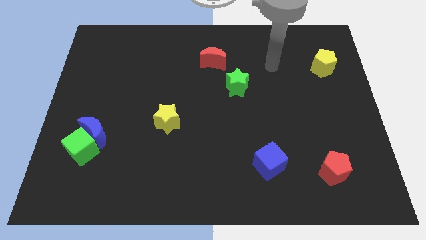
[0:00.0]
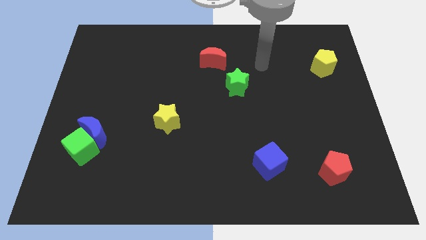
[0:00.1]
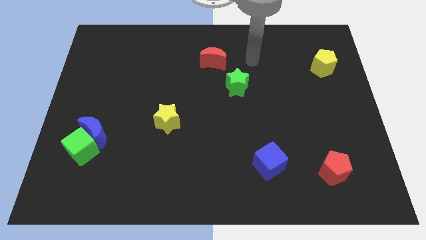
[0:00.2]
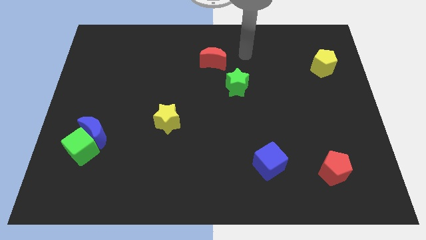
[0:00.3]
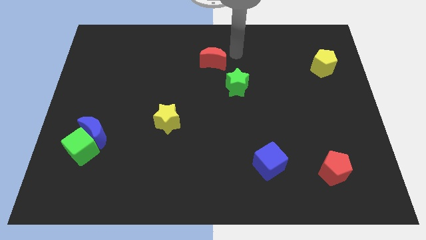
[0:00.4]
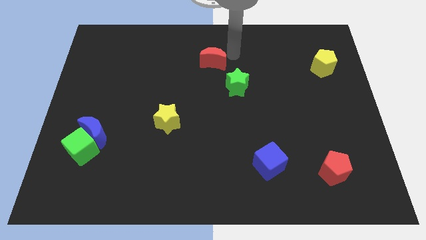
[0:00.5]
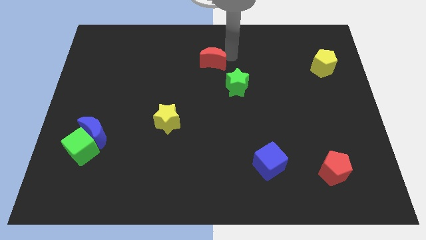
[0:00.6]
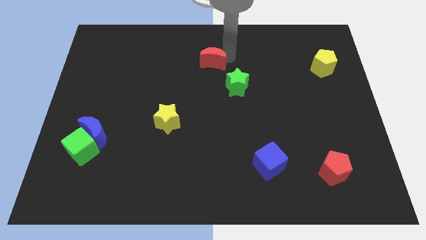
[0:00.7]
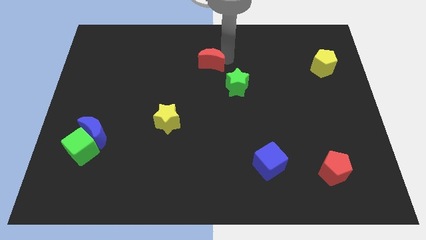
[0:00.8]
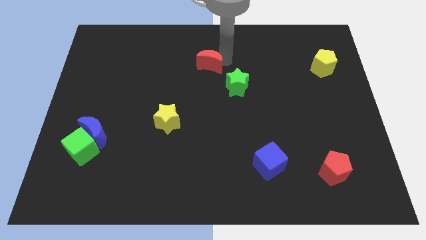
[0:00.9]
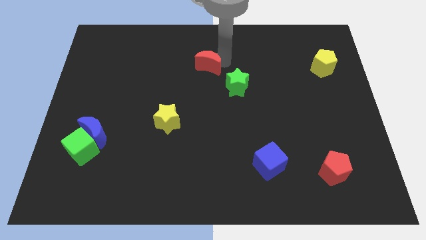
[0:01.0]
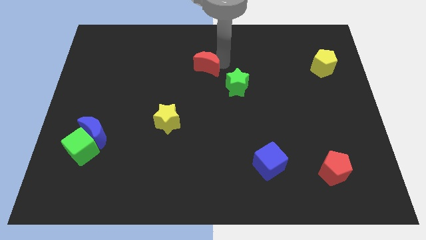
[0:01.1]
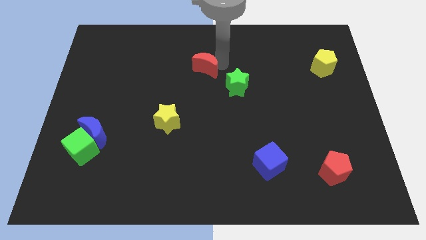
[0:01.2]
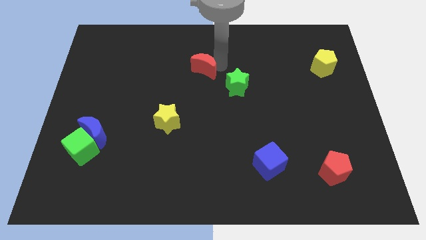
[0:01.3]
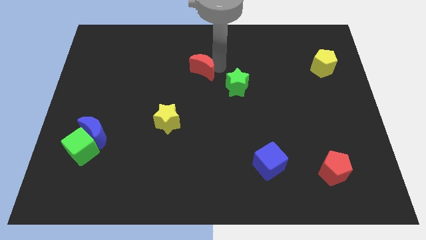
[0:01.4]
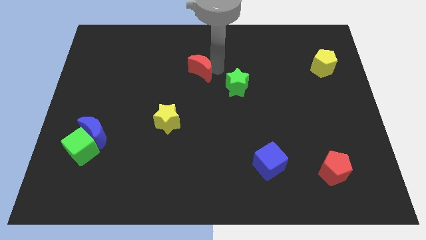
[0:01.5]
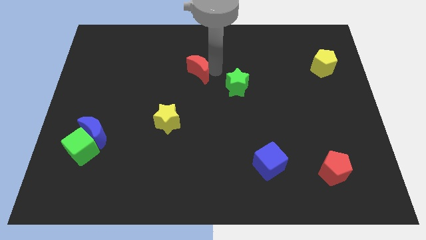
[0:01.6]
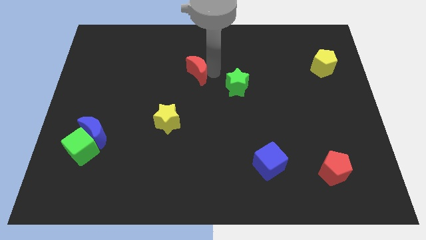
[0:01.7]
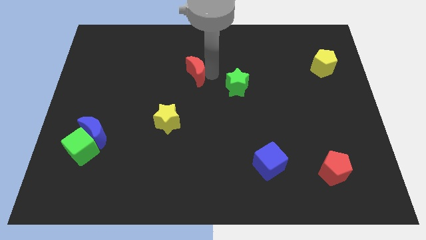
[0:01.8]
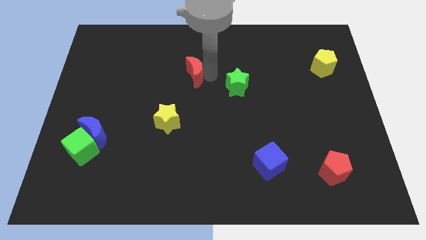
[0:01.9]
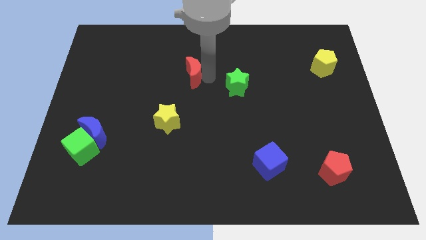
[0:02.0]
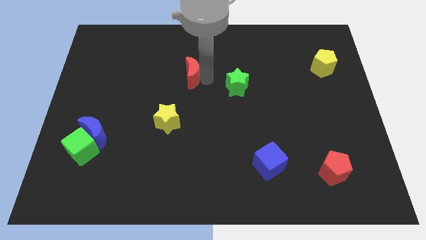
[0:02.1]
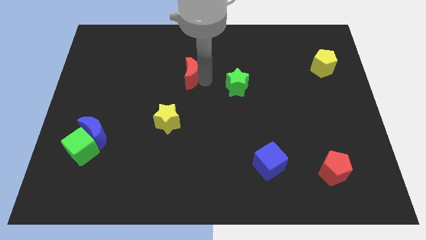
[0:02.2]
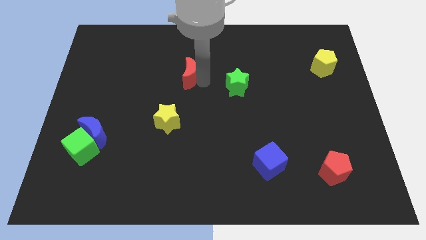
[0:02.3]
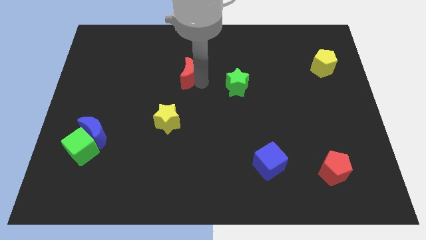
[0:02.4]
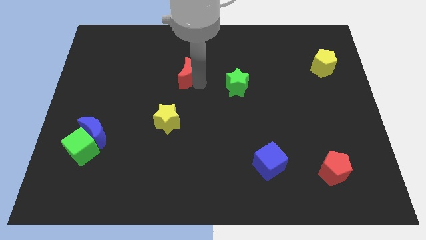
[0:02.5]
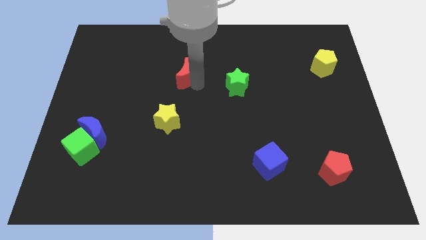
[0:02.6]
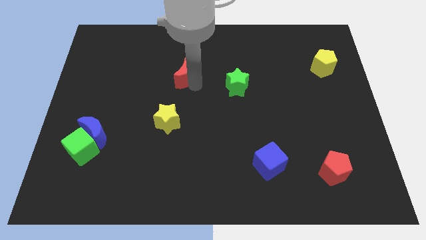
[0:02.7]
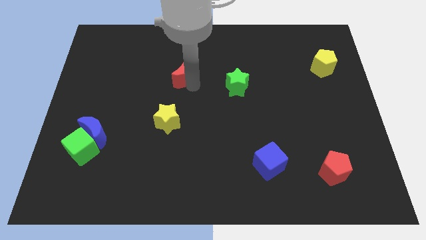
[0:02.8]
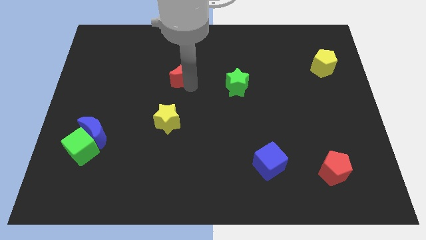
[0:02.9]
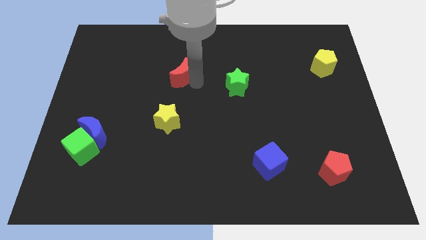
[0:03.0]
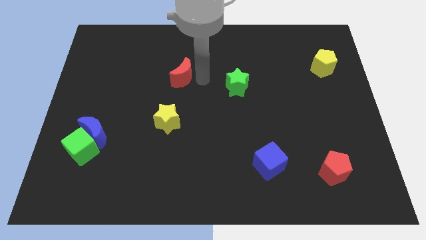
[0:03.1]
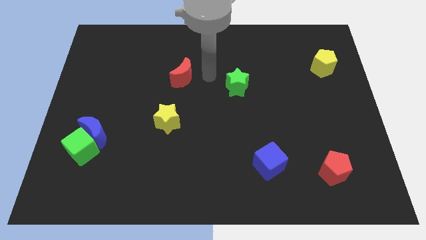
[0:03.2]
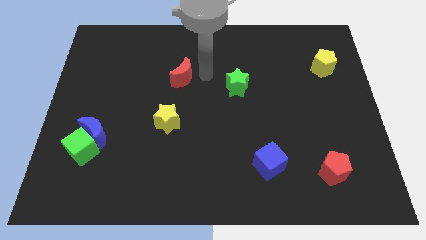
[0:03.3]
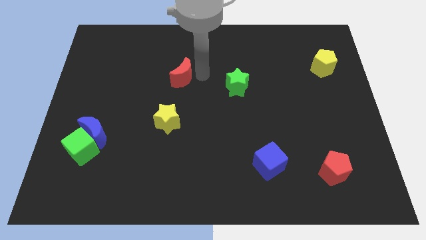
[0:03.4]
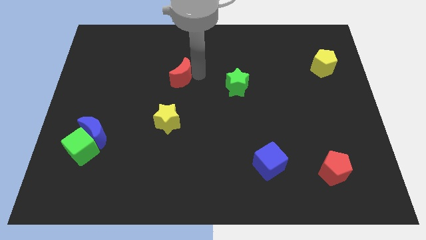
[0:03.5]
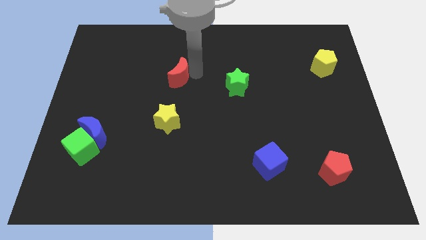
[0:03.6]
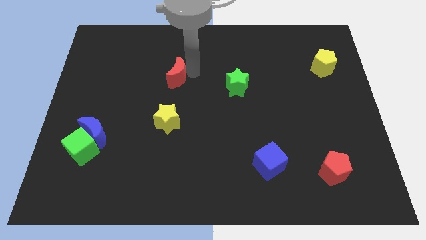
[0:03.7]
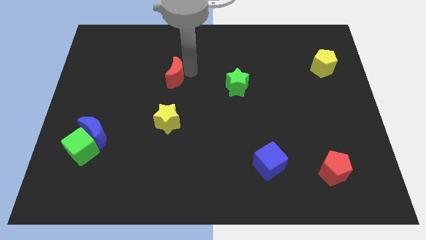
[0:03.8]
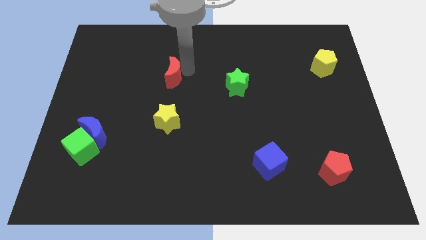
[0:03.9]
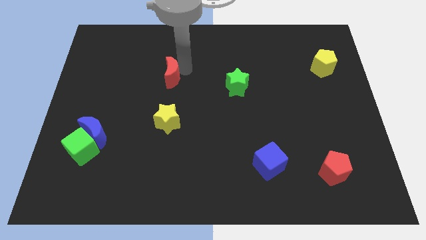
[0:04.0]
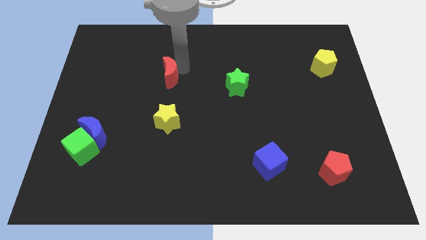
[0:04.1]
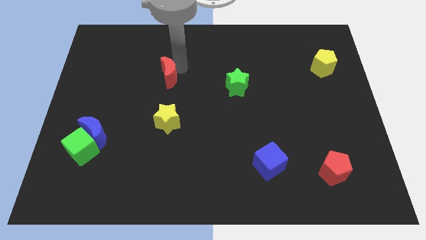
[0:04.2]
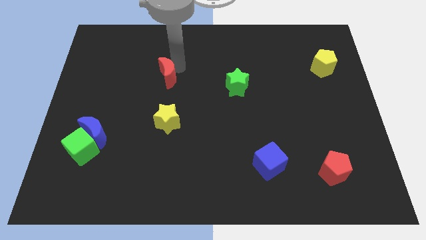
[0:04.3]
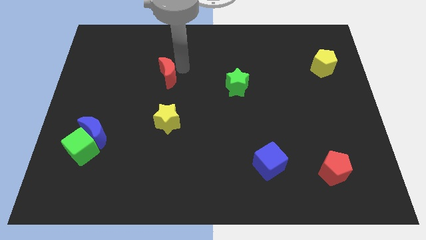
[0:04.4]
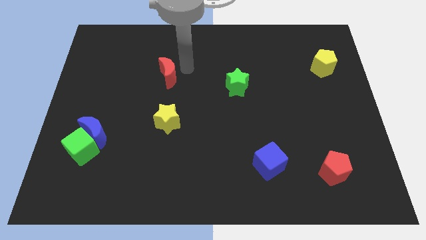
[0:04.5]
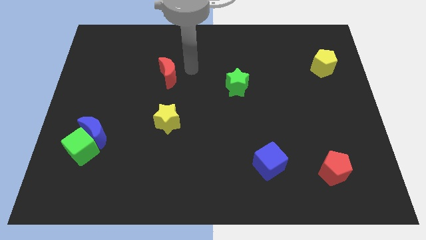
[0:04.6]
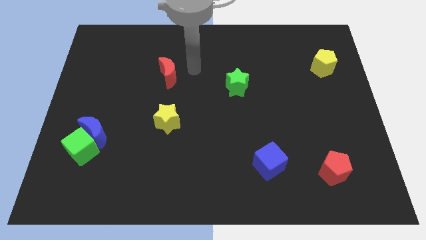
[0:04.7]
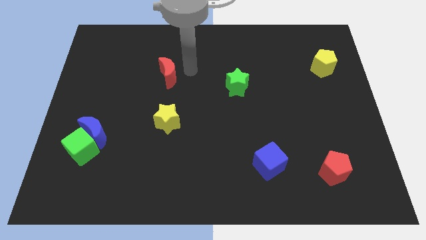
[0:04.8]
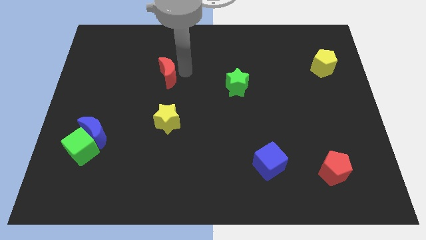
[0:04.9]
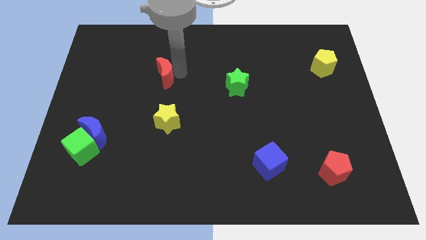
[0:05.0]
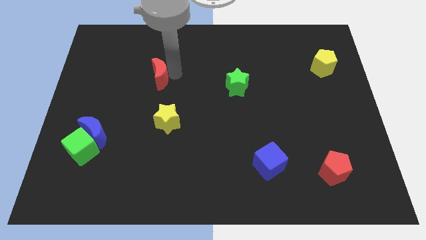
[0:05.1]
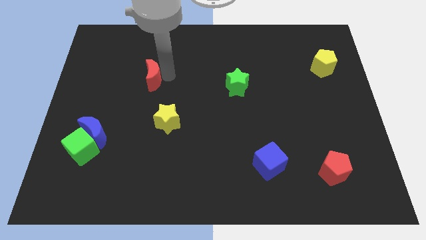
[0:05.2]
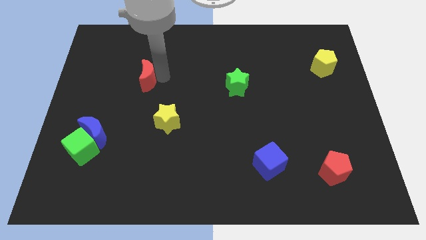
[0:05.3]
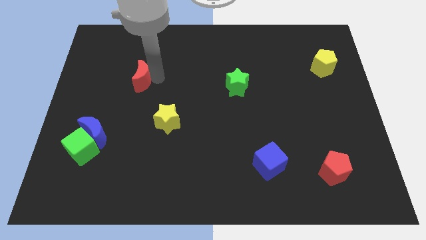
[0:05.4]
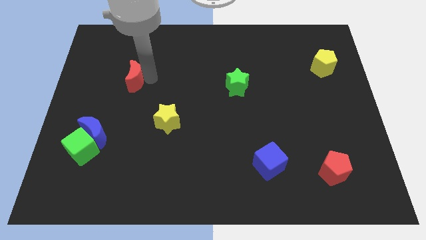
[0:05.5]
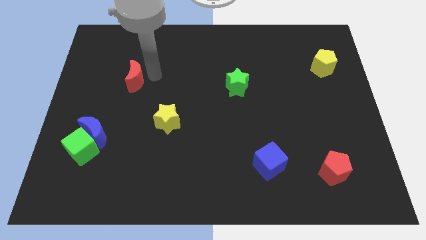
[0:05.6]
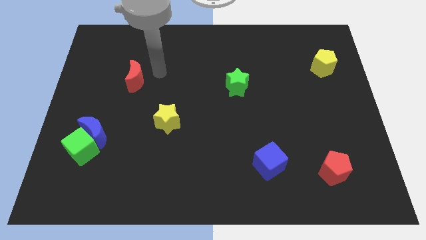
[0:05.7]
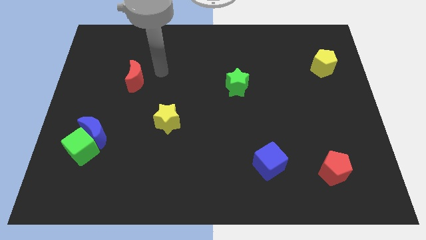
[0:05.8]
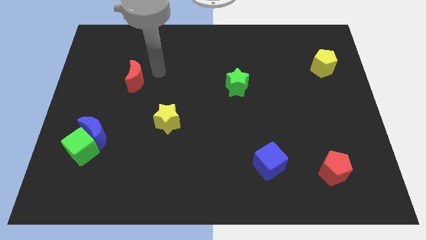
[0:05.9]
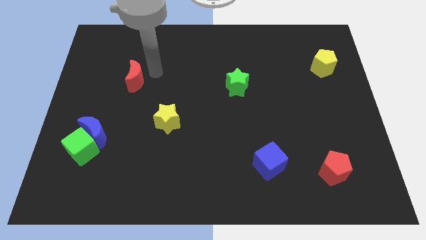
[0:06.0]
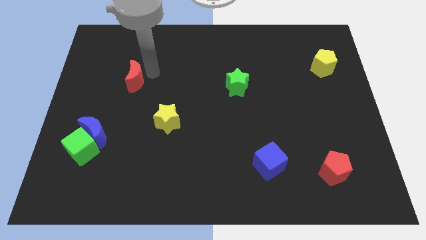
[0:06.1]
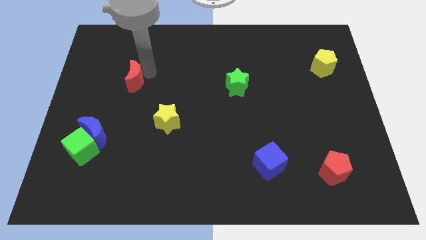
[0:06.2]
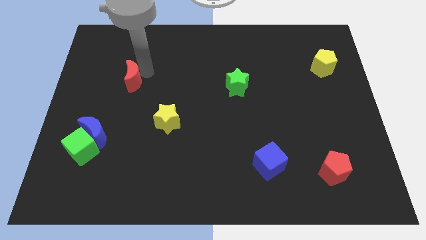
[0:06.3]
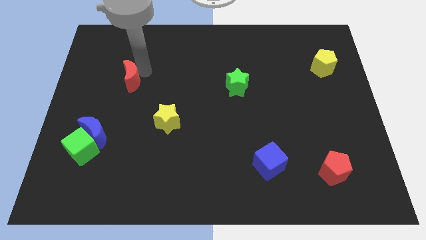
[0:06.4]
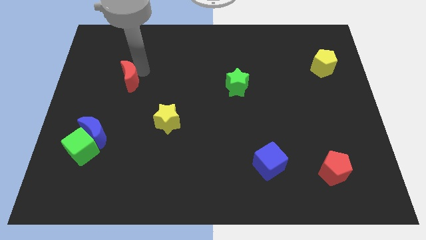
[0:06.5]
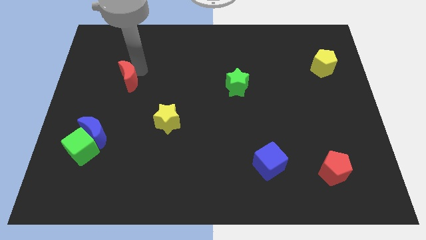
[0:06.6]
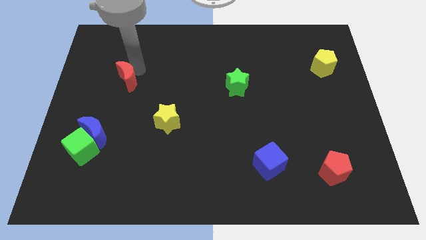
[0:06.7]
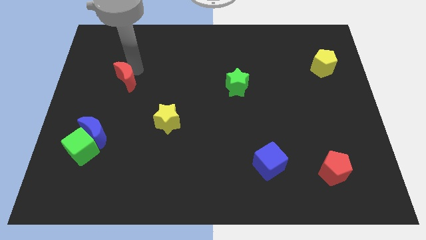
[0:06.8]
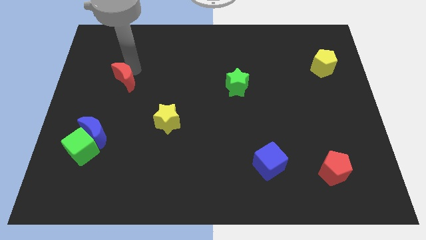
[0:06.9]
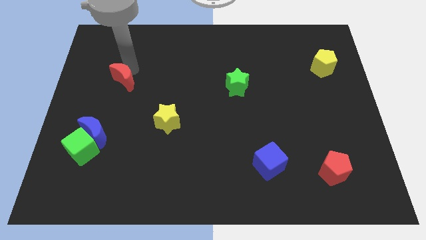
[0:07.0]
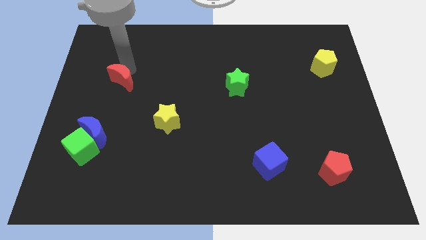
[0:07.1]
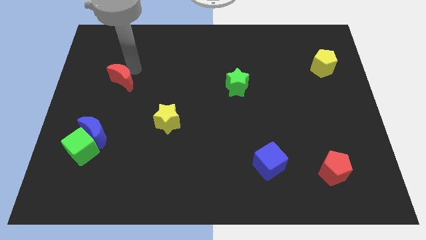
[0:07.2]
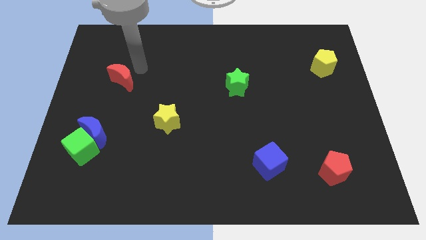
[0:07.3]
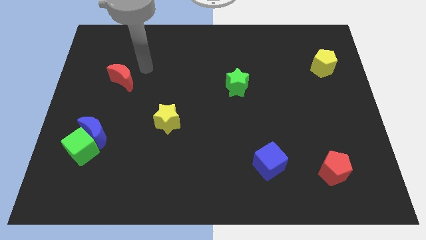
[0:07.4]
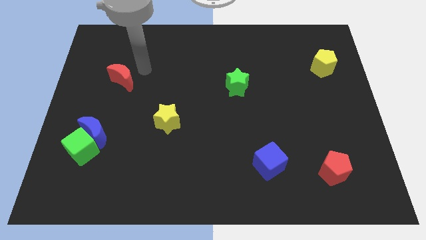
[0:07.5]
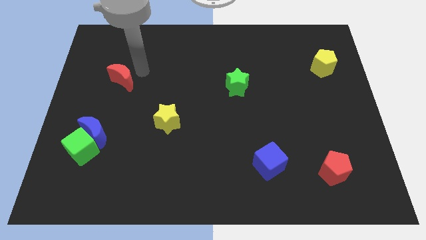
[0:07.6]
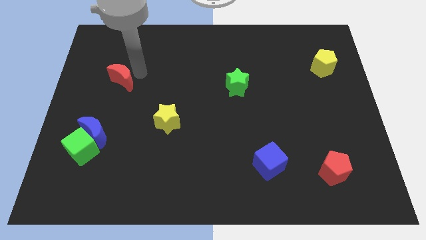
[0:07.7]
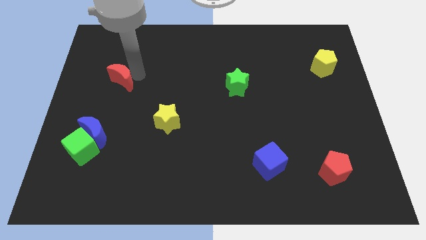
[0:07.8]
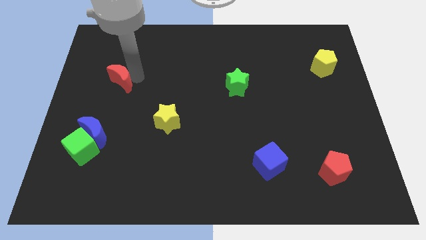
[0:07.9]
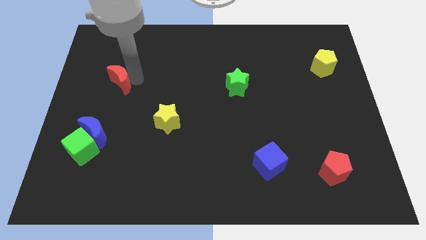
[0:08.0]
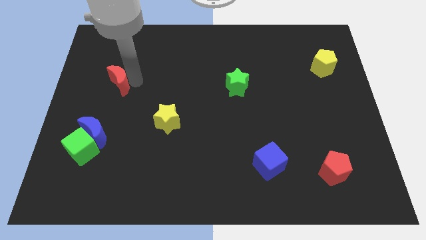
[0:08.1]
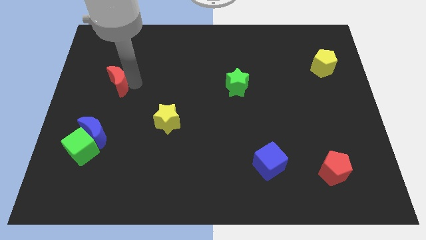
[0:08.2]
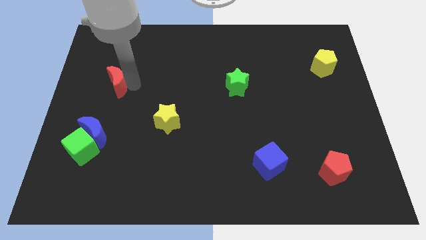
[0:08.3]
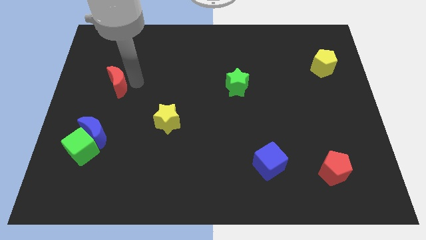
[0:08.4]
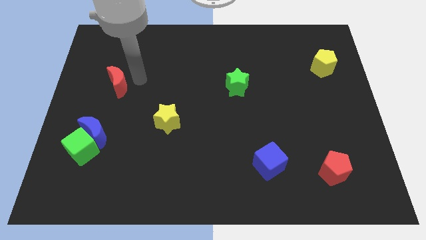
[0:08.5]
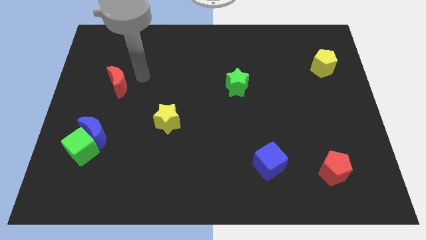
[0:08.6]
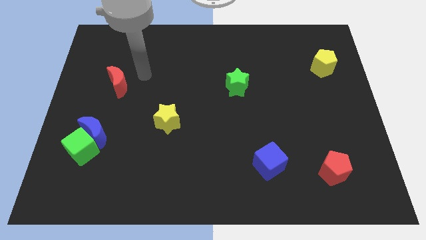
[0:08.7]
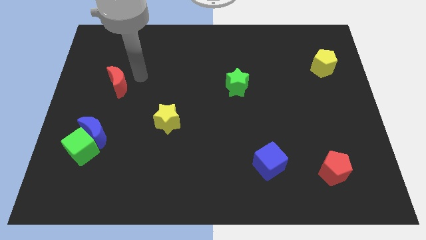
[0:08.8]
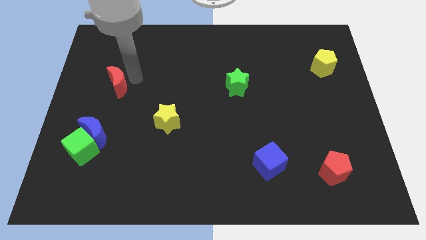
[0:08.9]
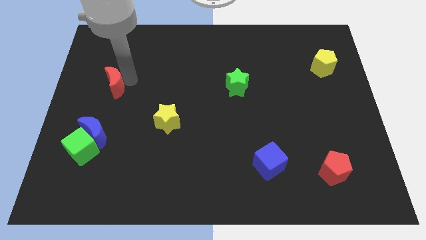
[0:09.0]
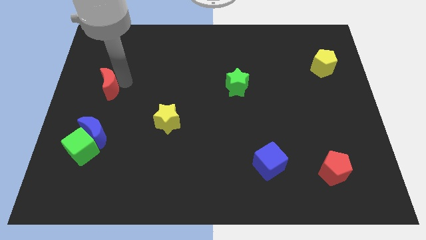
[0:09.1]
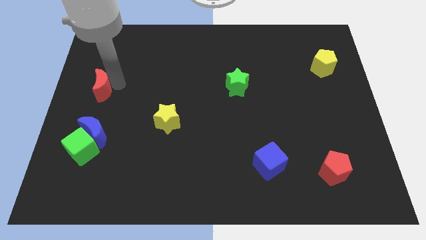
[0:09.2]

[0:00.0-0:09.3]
push the red moon to the left side of the board
